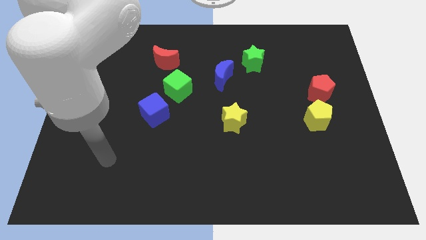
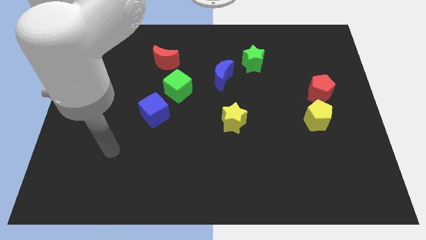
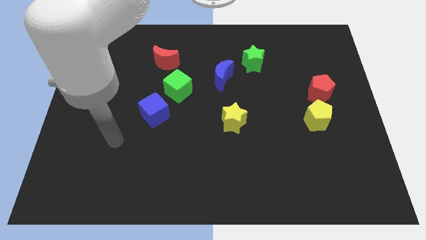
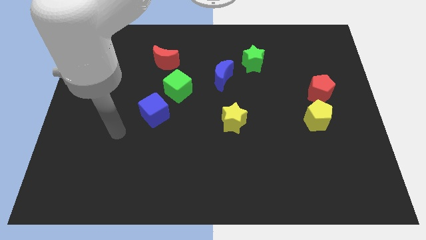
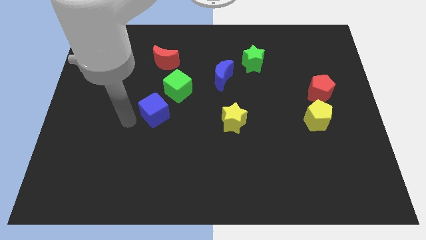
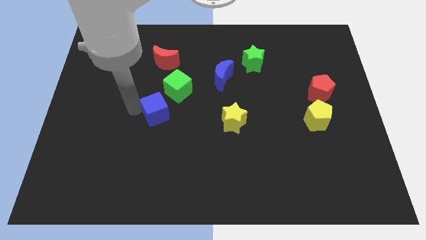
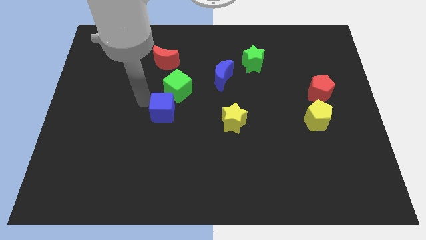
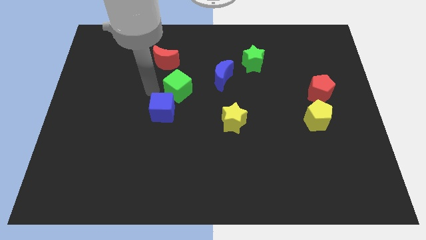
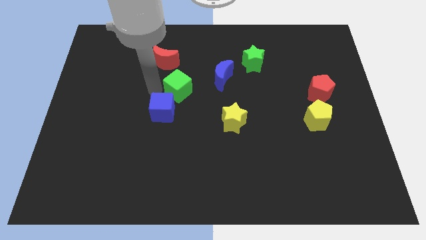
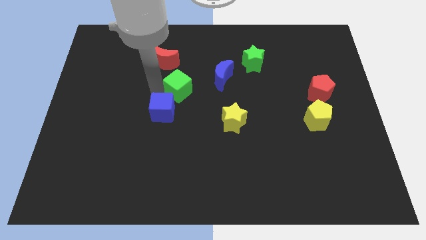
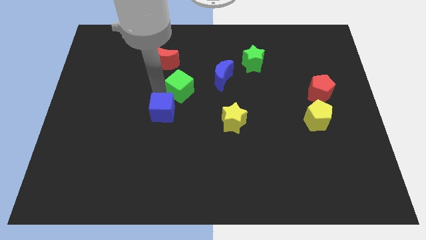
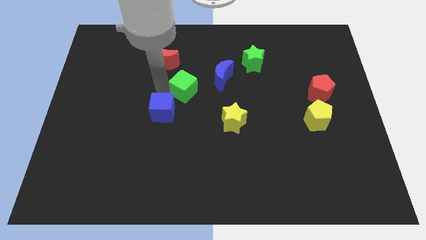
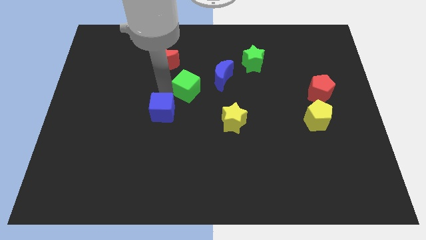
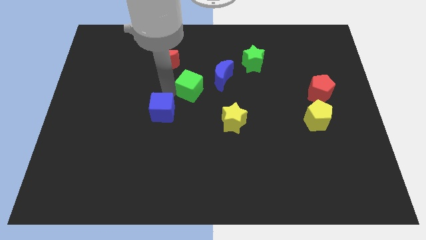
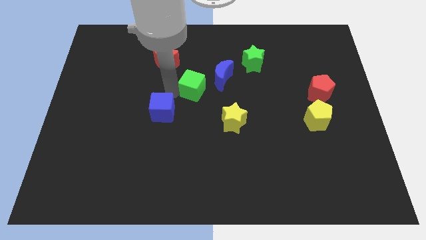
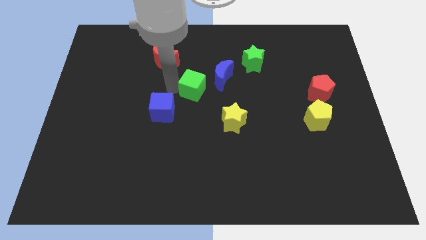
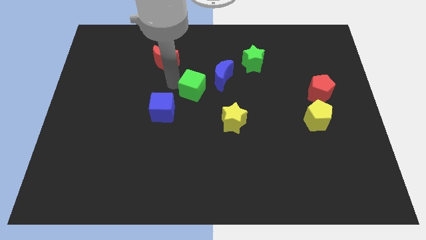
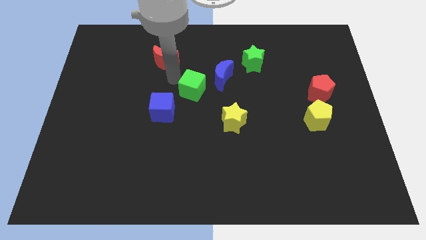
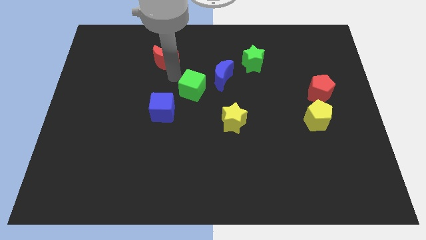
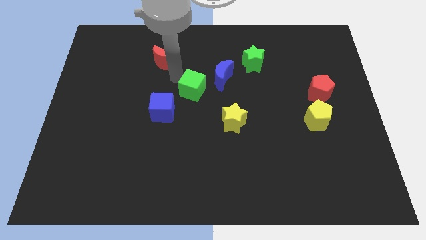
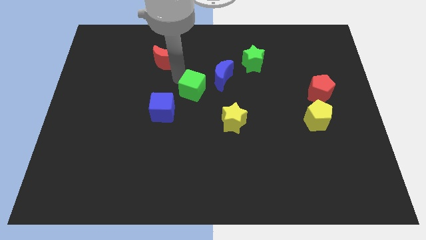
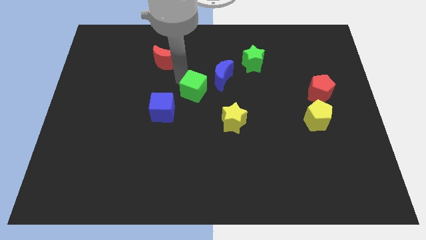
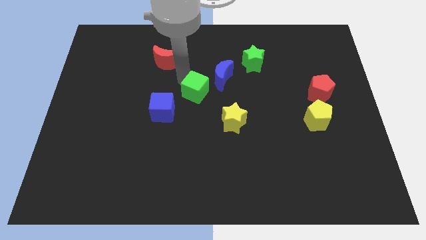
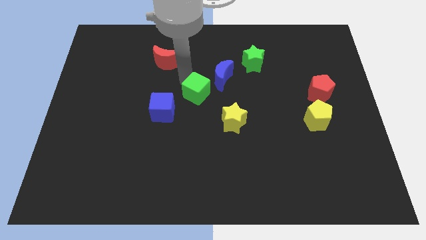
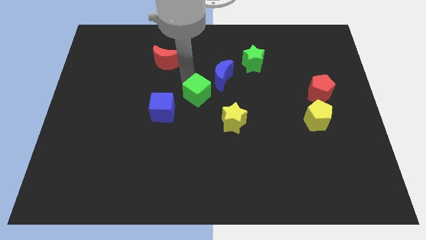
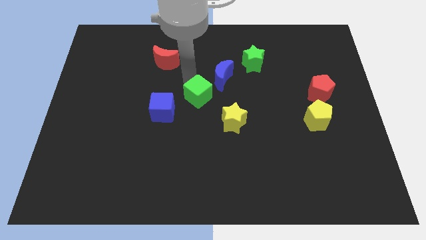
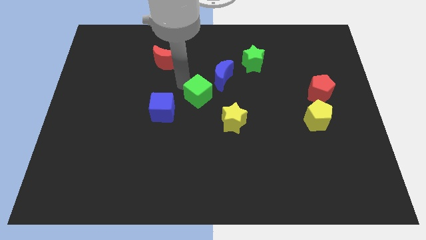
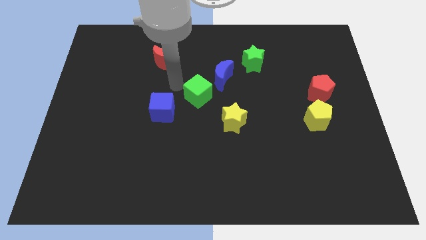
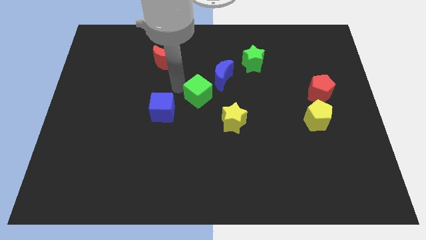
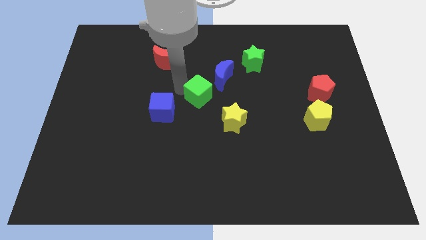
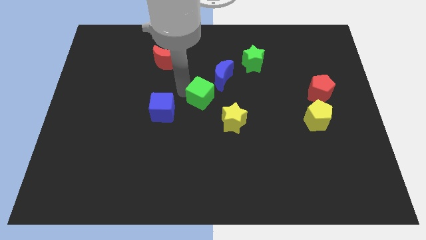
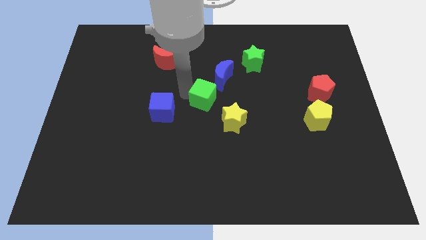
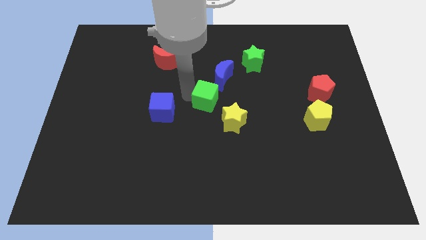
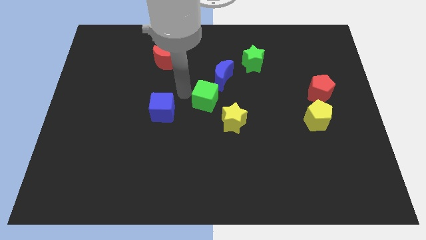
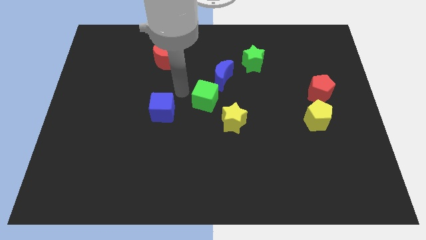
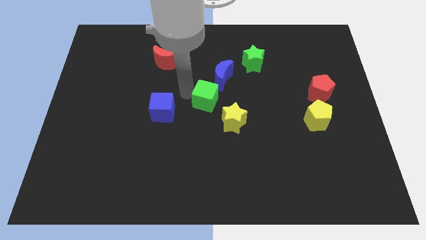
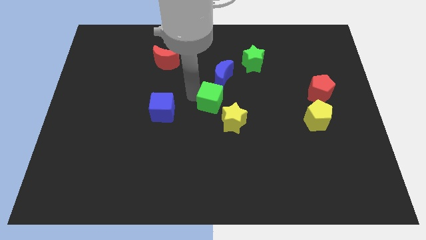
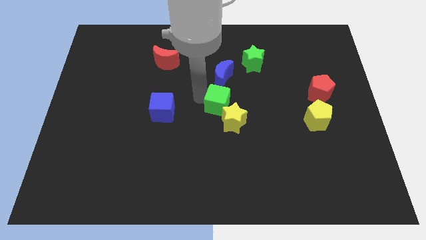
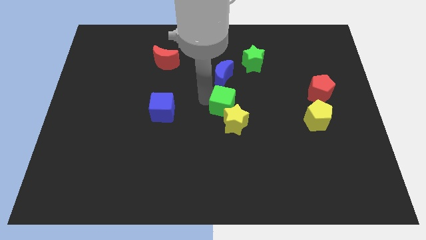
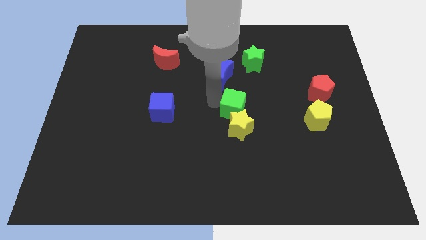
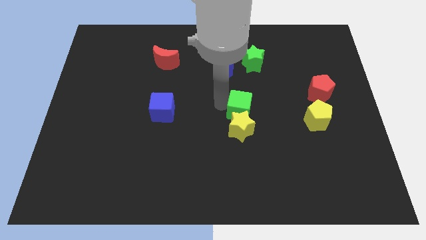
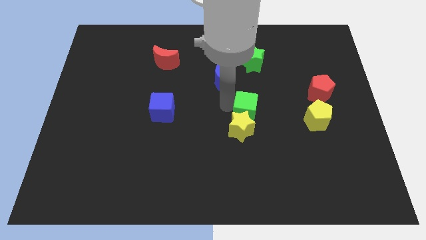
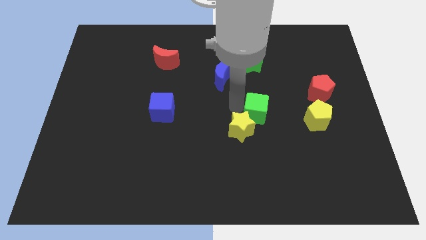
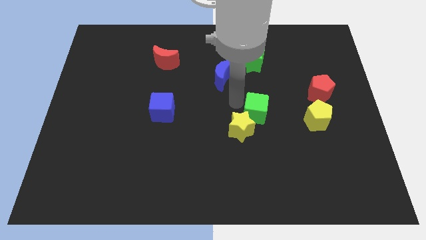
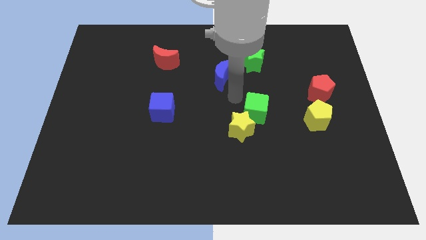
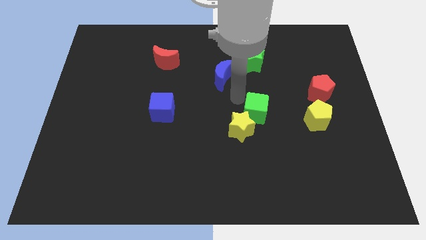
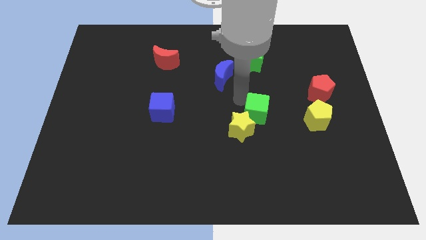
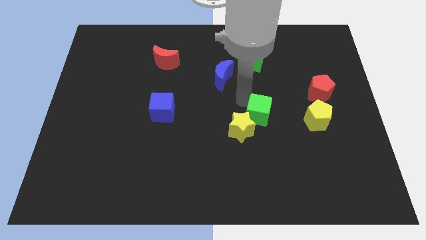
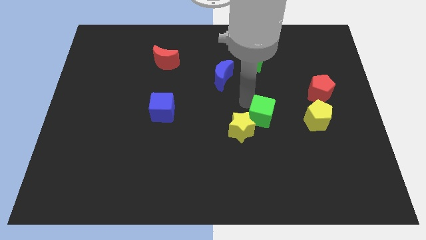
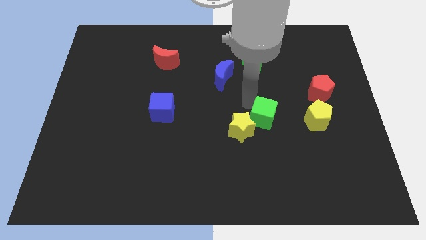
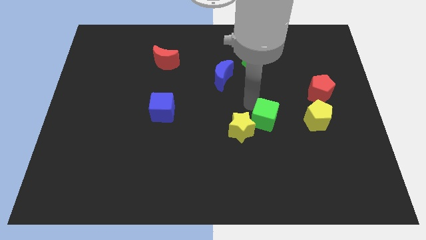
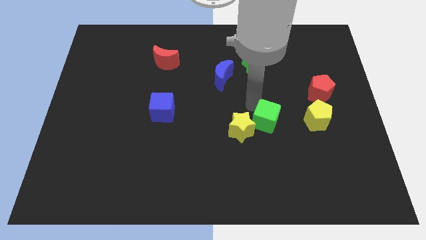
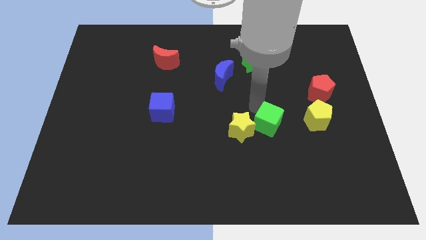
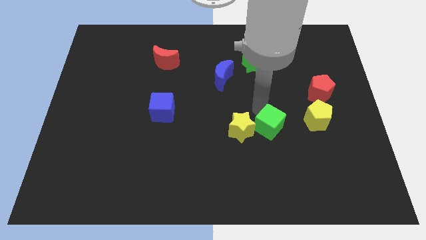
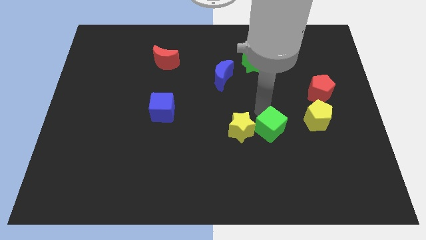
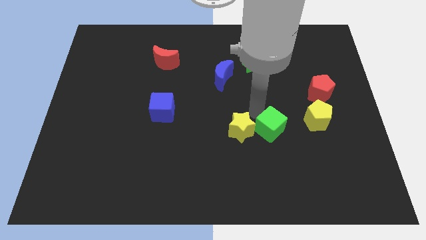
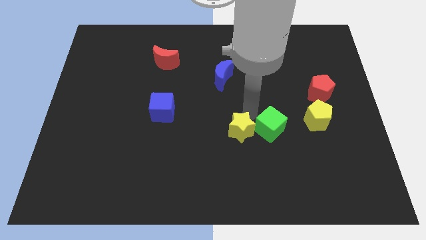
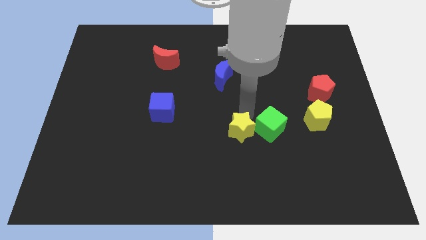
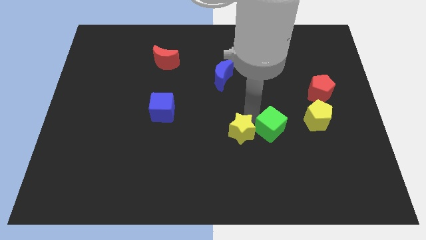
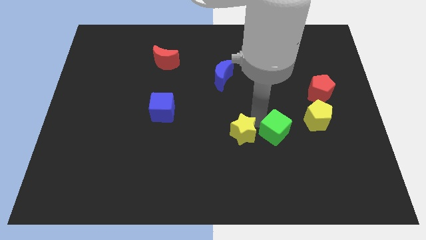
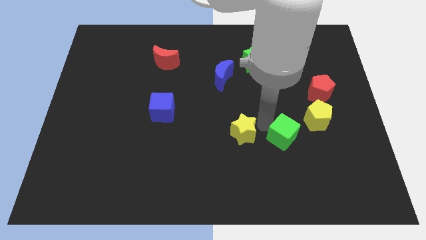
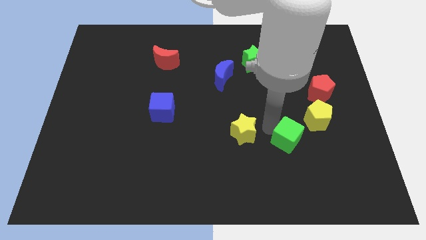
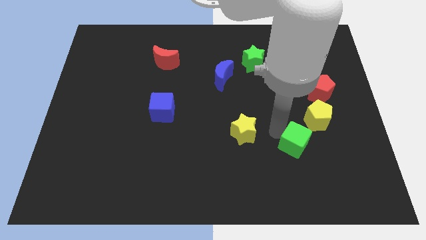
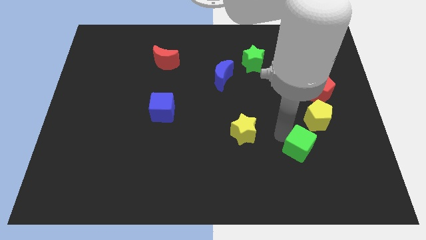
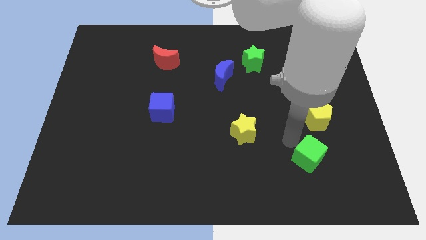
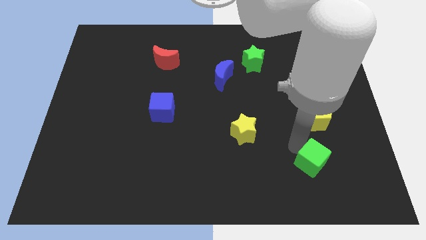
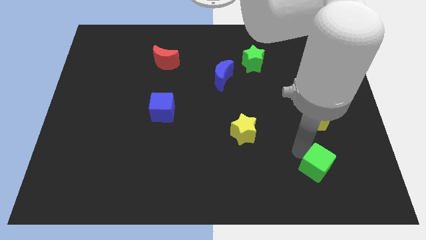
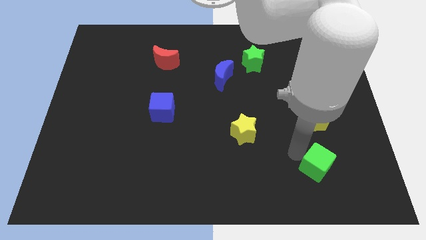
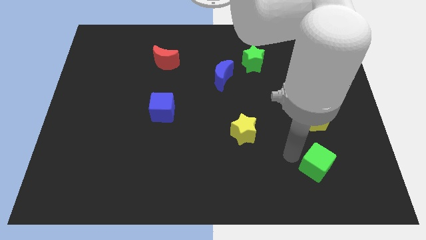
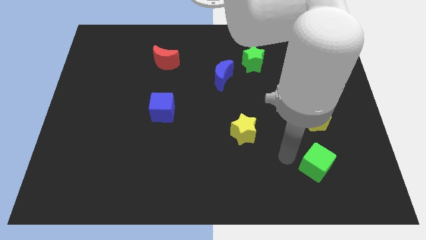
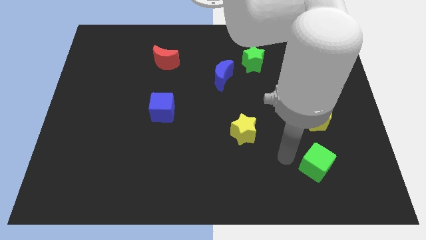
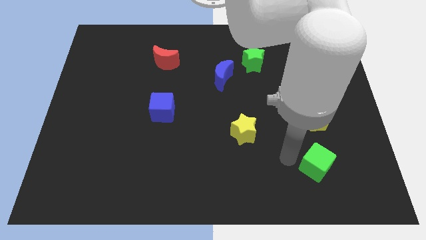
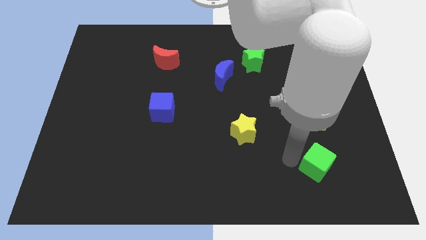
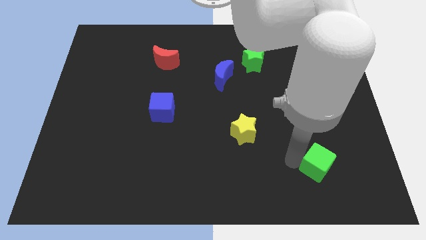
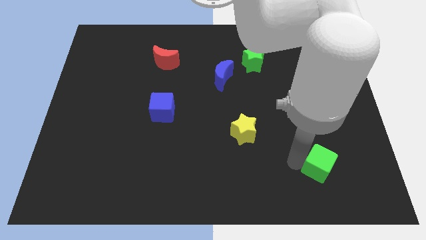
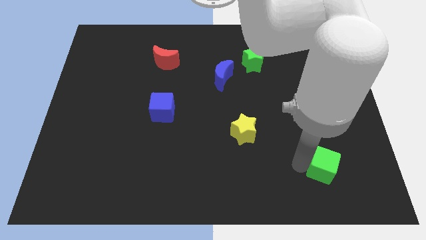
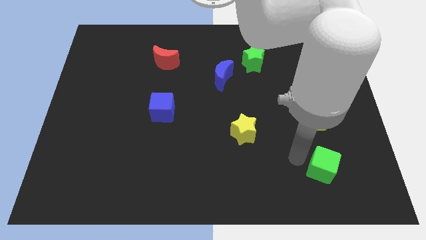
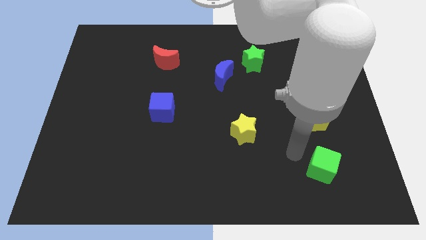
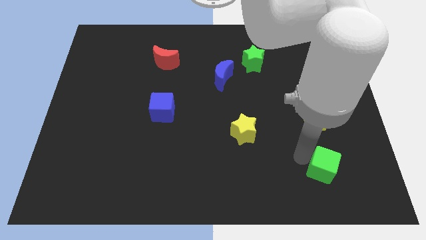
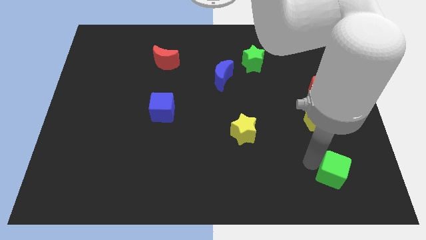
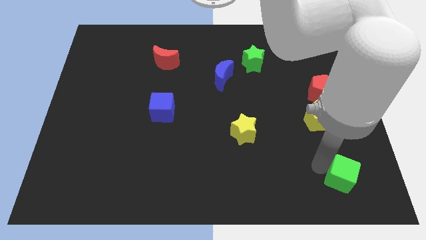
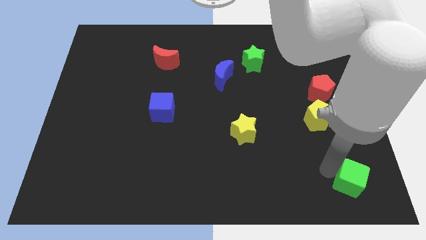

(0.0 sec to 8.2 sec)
slide the green cube to the lower right corner
